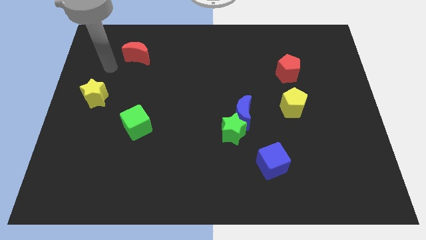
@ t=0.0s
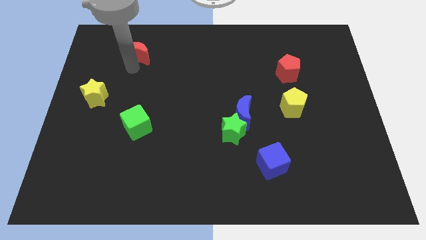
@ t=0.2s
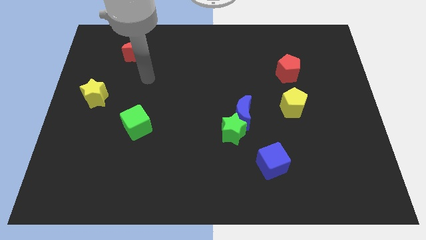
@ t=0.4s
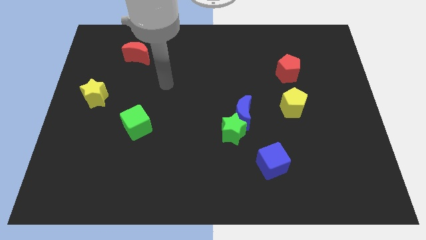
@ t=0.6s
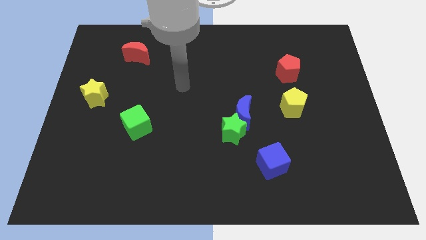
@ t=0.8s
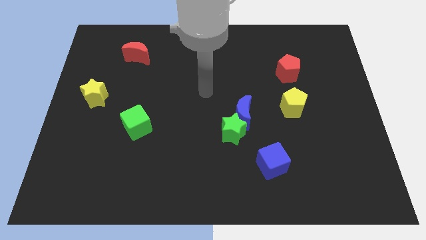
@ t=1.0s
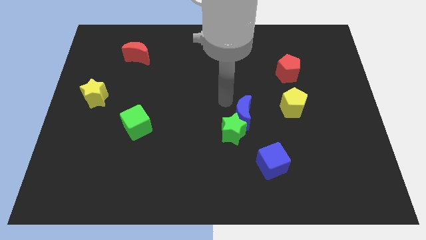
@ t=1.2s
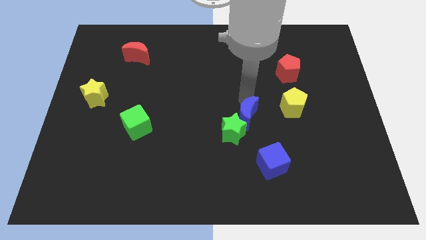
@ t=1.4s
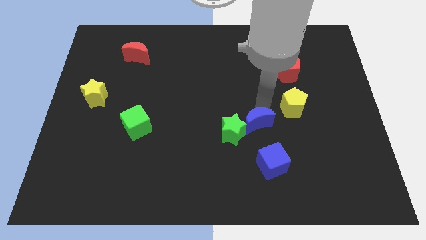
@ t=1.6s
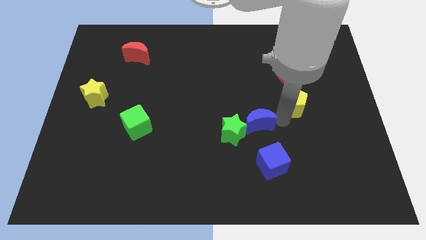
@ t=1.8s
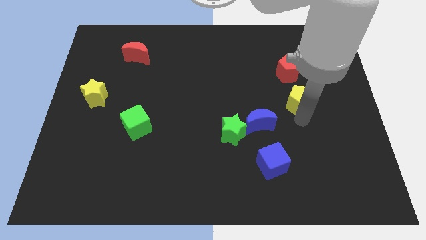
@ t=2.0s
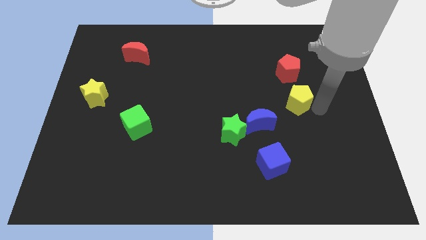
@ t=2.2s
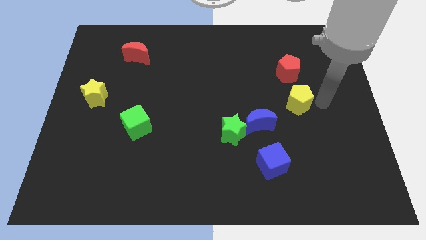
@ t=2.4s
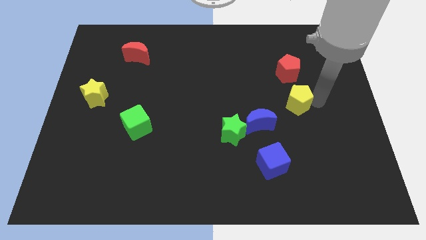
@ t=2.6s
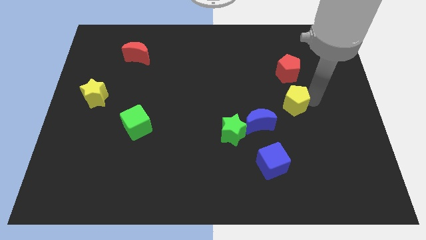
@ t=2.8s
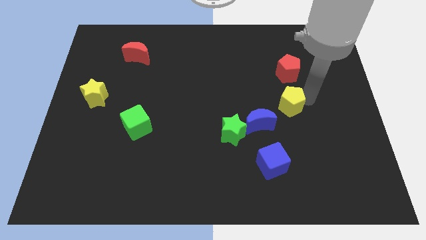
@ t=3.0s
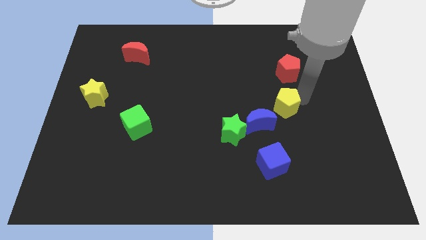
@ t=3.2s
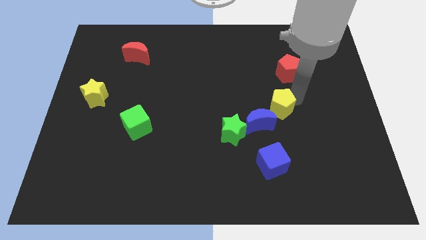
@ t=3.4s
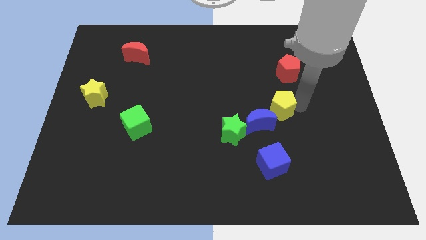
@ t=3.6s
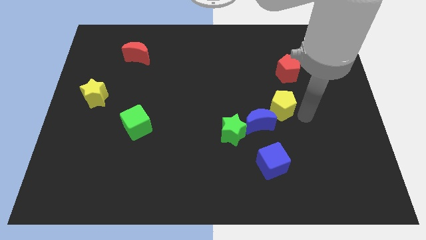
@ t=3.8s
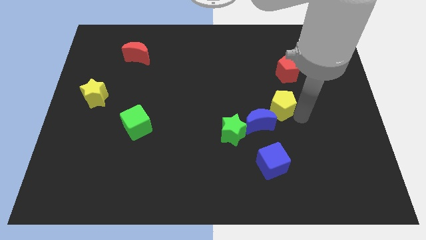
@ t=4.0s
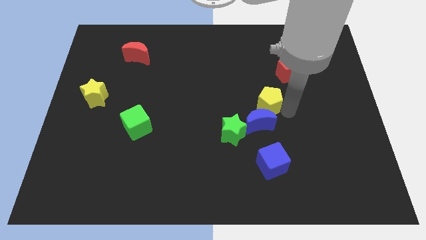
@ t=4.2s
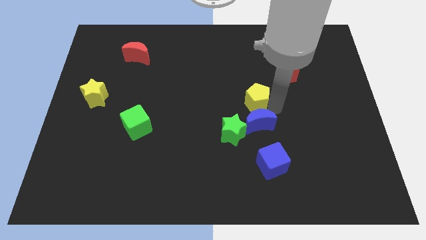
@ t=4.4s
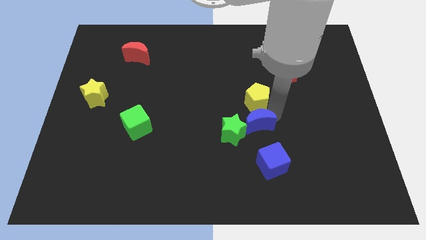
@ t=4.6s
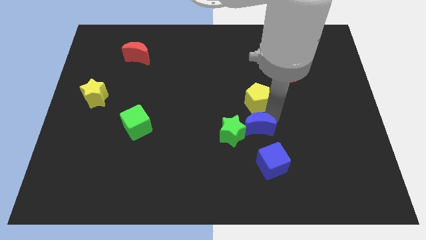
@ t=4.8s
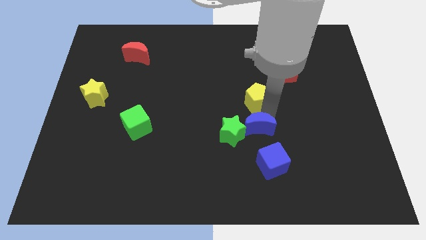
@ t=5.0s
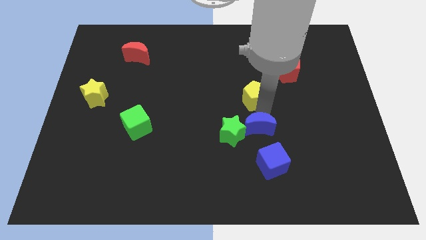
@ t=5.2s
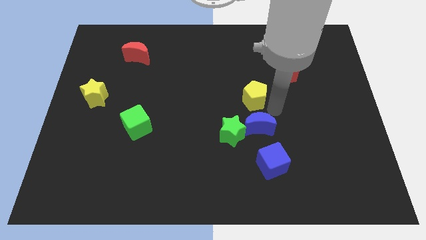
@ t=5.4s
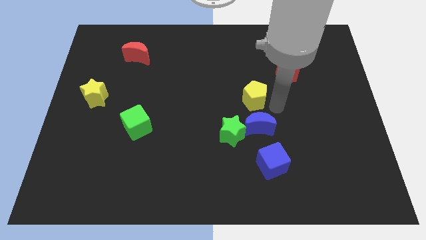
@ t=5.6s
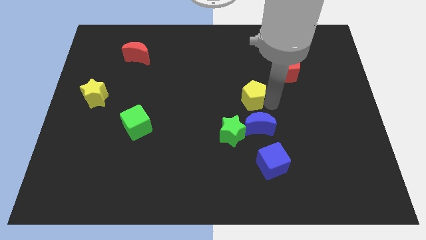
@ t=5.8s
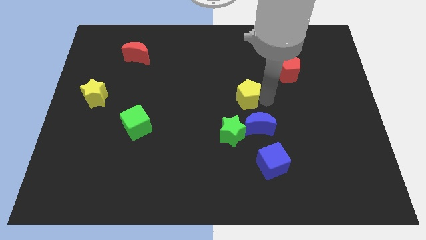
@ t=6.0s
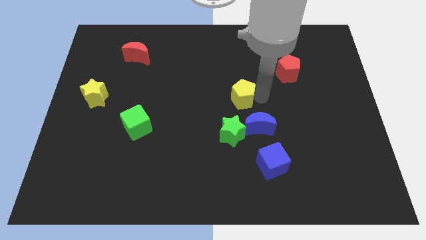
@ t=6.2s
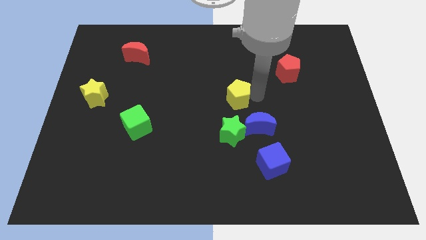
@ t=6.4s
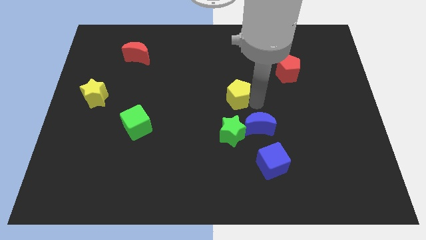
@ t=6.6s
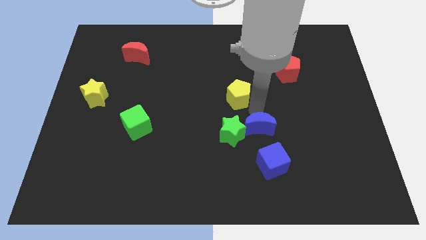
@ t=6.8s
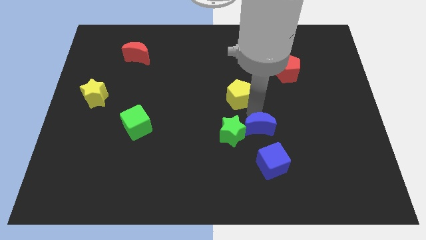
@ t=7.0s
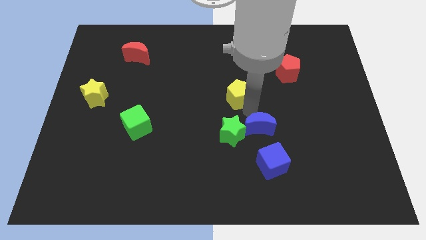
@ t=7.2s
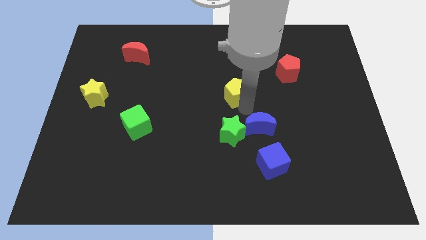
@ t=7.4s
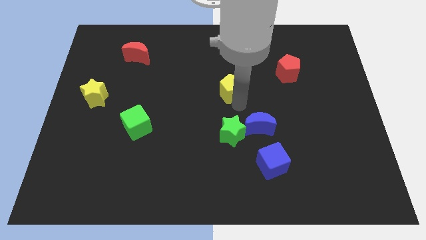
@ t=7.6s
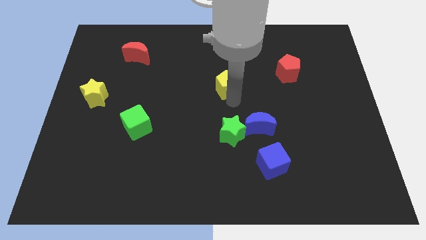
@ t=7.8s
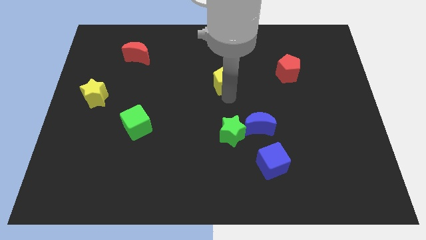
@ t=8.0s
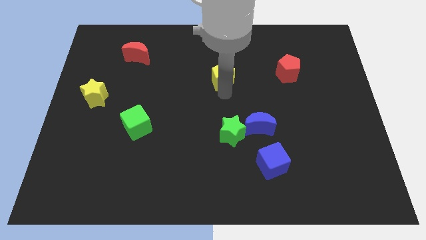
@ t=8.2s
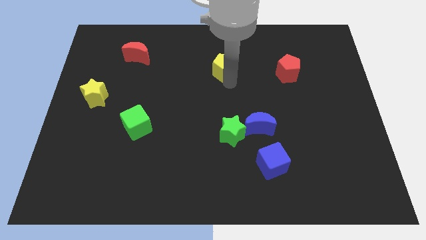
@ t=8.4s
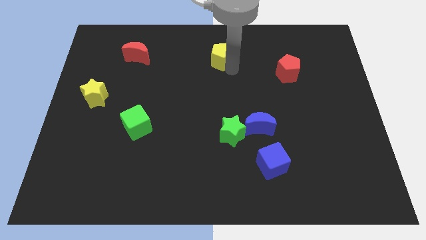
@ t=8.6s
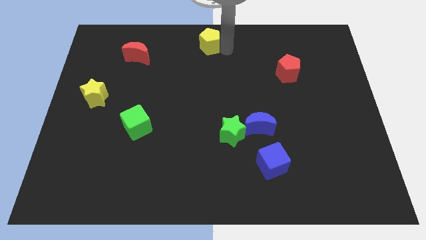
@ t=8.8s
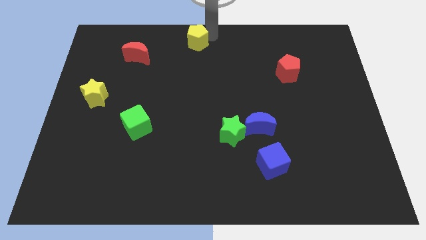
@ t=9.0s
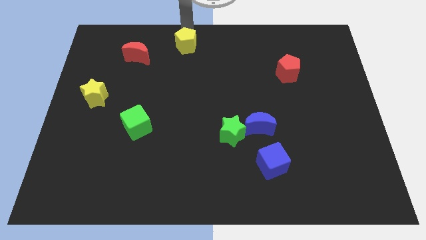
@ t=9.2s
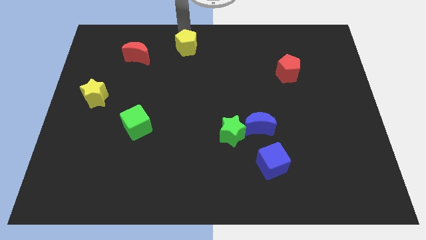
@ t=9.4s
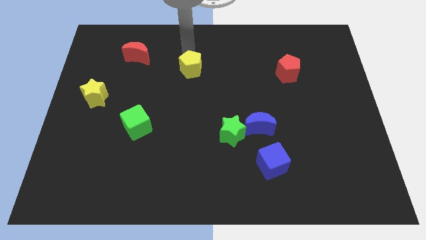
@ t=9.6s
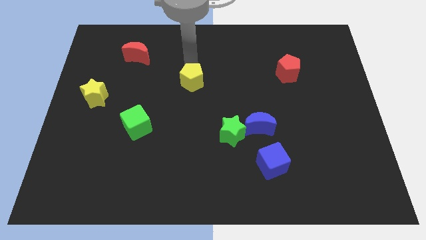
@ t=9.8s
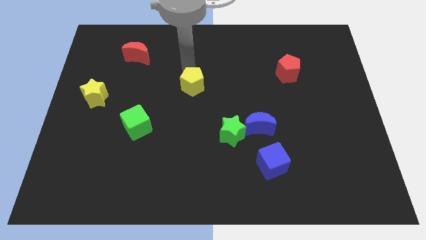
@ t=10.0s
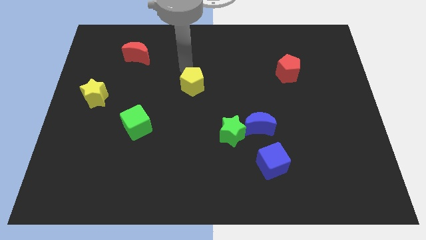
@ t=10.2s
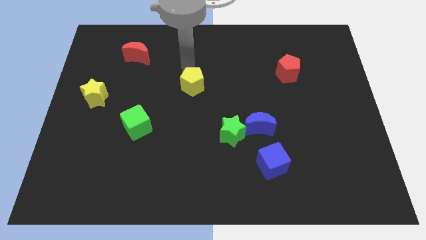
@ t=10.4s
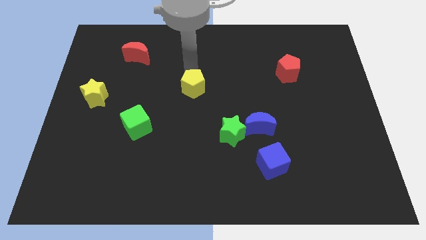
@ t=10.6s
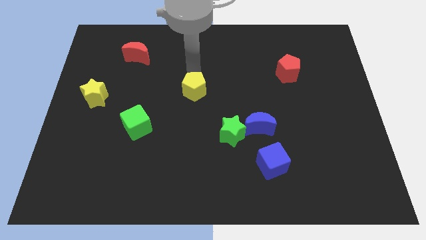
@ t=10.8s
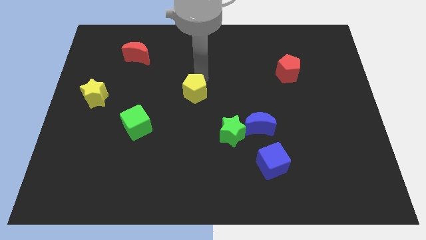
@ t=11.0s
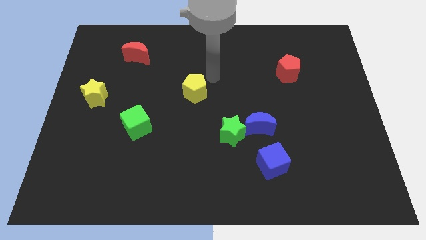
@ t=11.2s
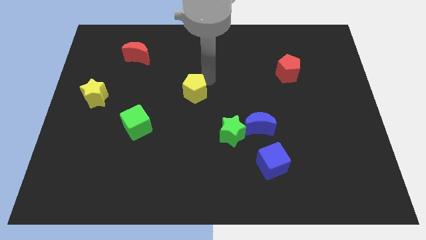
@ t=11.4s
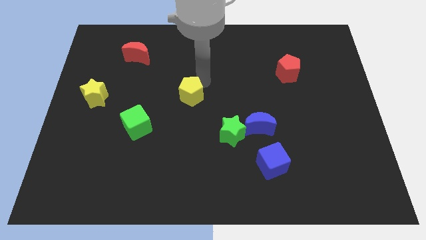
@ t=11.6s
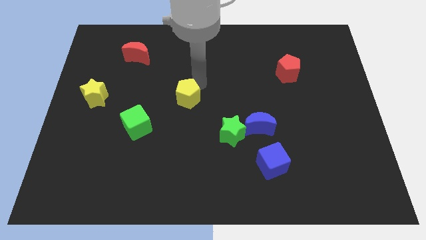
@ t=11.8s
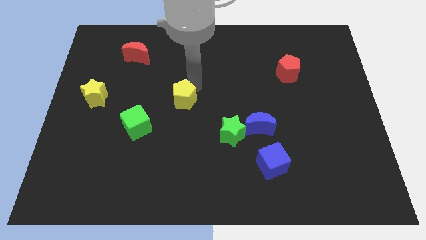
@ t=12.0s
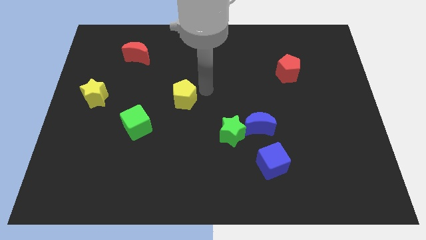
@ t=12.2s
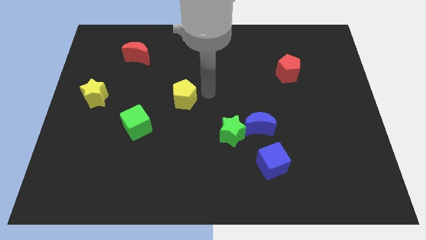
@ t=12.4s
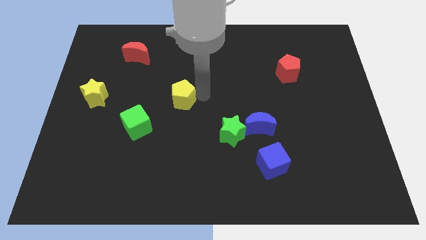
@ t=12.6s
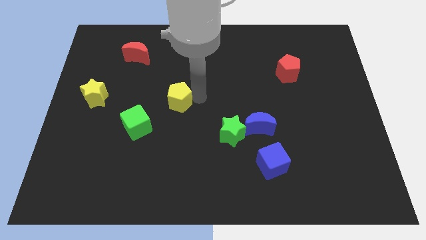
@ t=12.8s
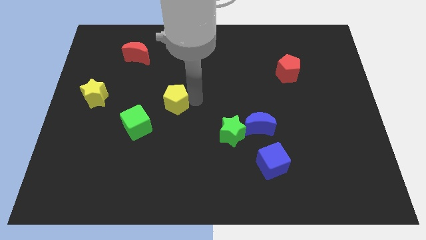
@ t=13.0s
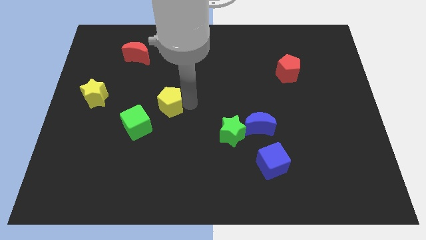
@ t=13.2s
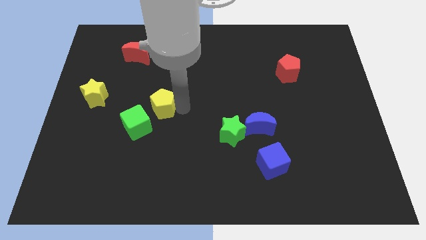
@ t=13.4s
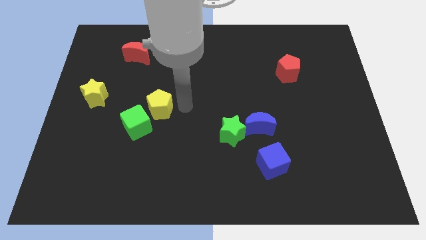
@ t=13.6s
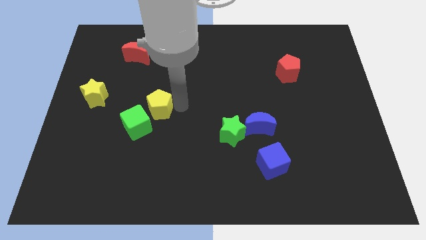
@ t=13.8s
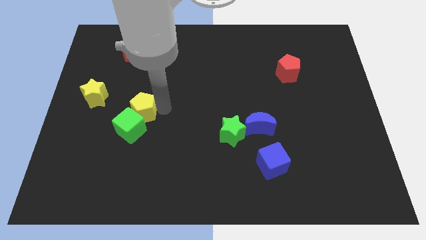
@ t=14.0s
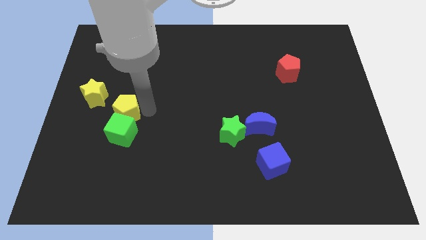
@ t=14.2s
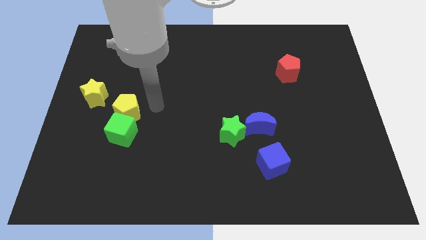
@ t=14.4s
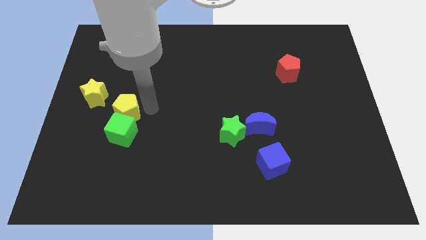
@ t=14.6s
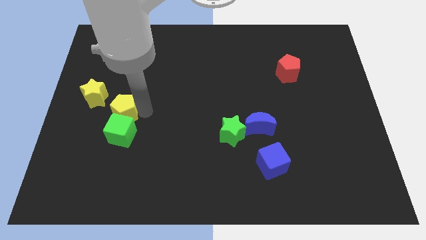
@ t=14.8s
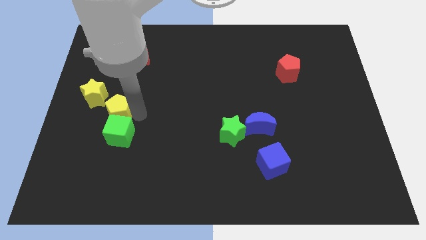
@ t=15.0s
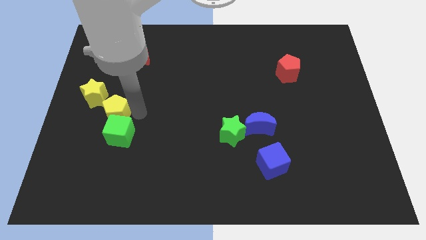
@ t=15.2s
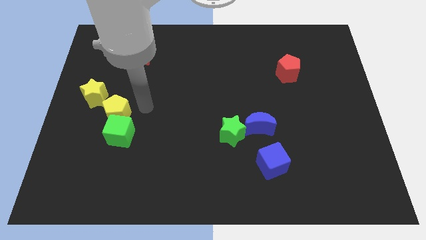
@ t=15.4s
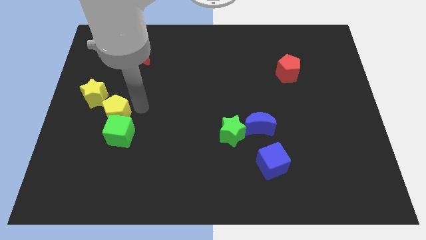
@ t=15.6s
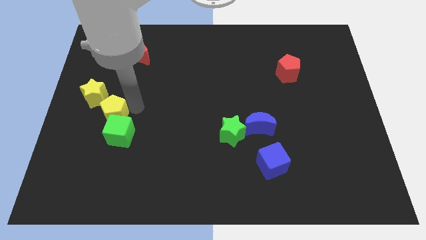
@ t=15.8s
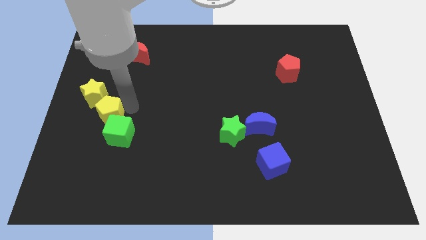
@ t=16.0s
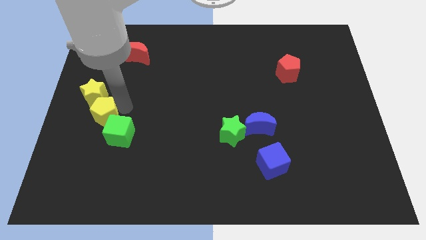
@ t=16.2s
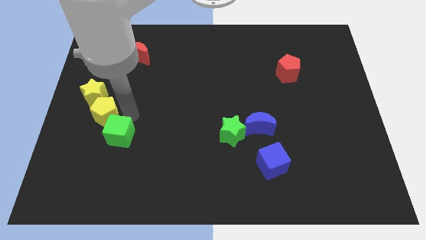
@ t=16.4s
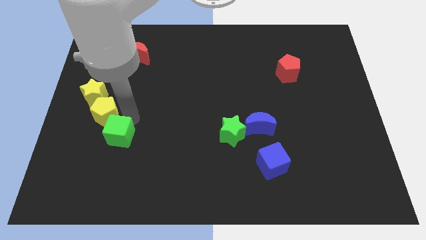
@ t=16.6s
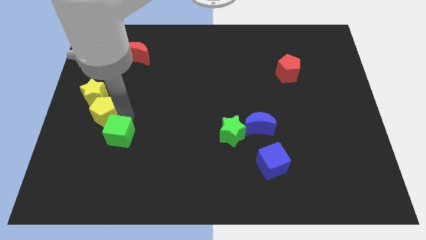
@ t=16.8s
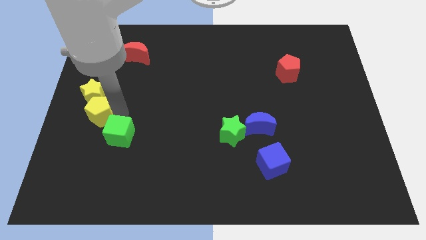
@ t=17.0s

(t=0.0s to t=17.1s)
push the yellow pentagon to the left side of the board
